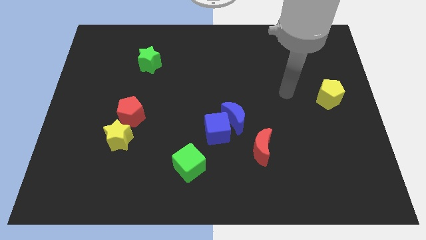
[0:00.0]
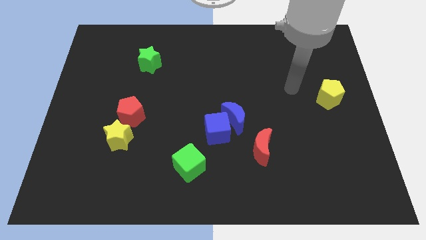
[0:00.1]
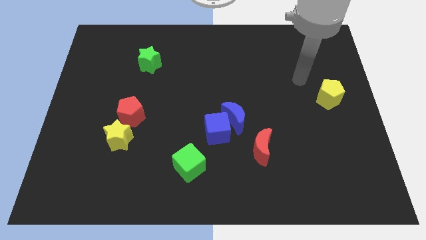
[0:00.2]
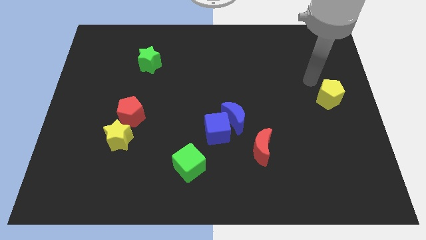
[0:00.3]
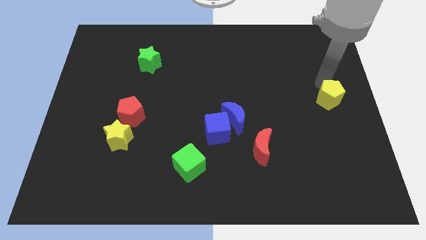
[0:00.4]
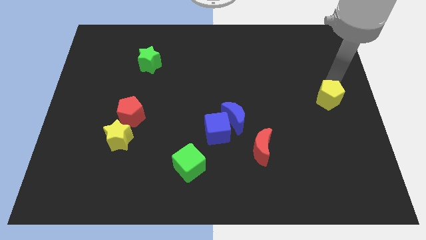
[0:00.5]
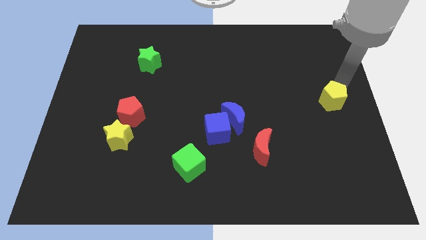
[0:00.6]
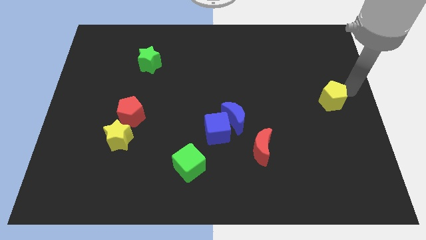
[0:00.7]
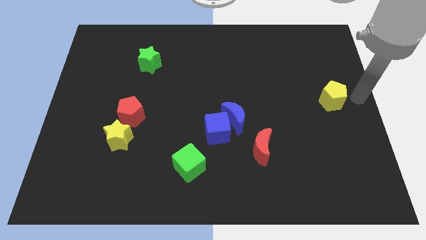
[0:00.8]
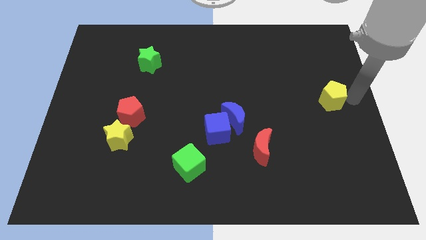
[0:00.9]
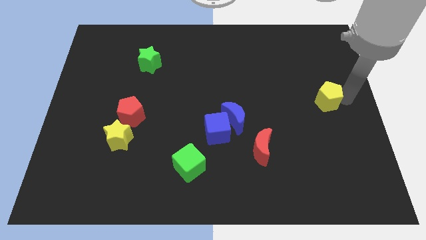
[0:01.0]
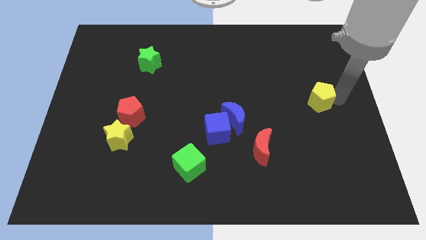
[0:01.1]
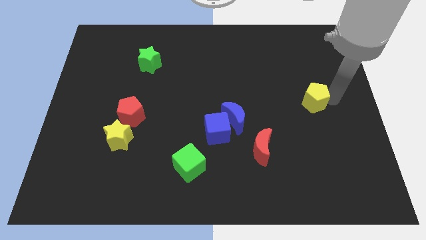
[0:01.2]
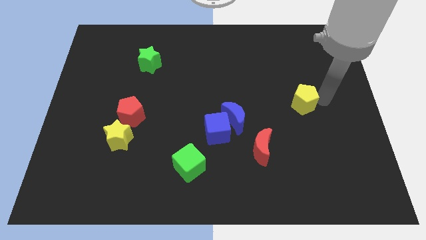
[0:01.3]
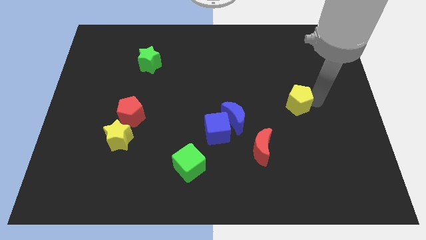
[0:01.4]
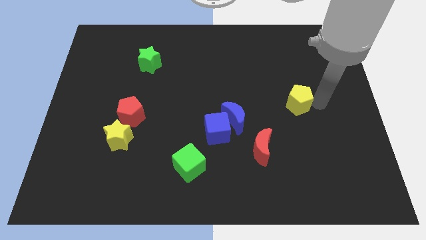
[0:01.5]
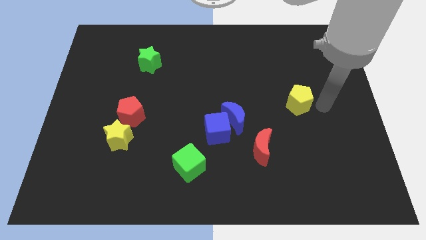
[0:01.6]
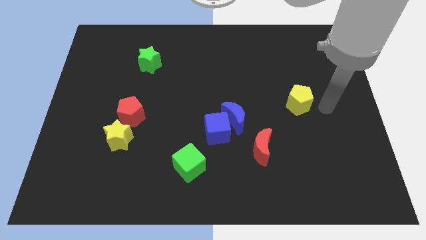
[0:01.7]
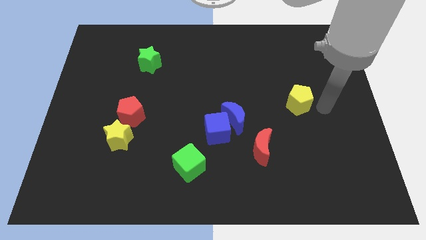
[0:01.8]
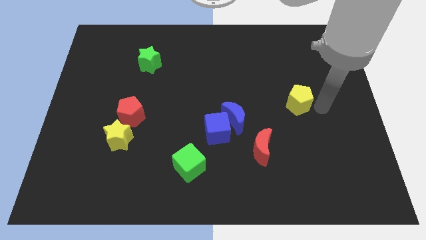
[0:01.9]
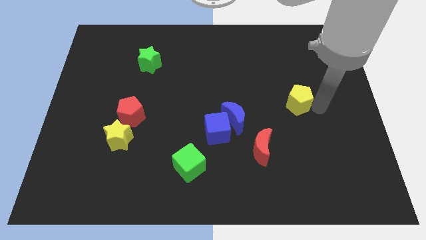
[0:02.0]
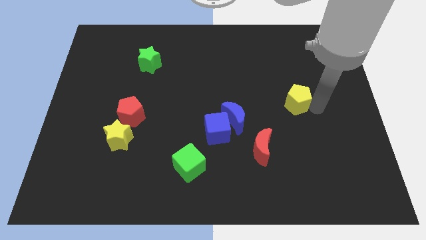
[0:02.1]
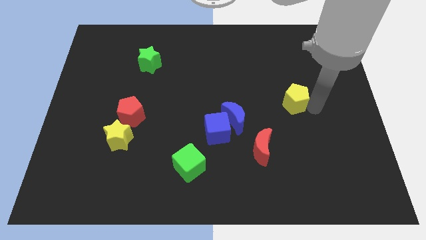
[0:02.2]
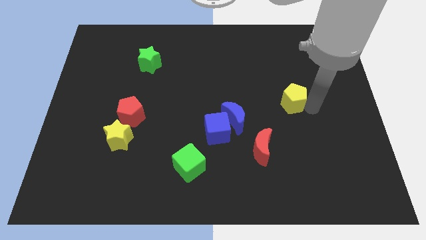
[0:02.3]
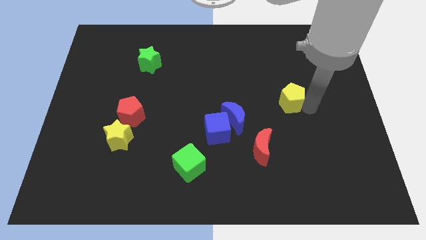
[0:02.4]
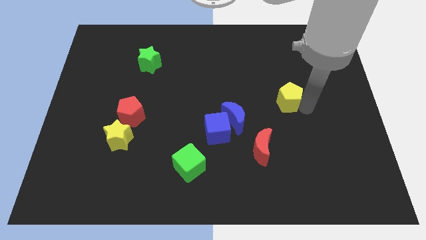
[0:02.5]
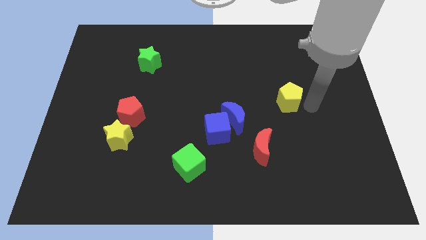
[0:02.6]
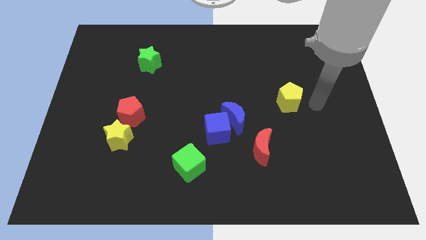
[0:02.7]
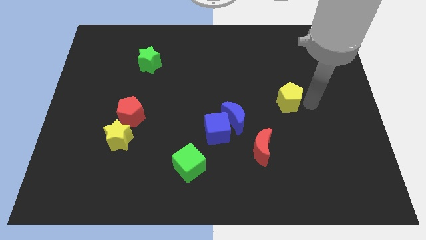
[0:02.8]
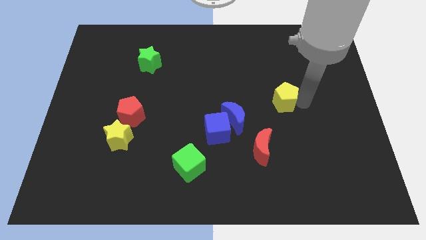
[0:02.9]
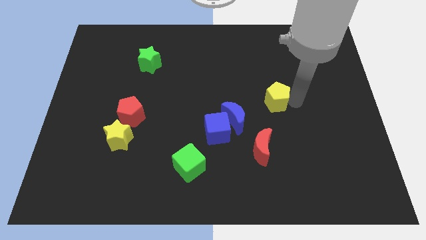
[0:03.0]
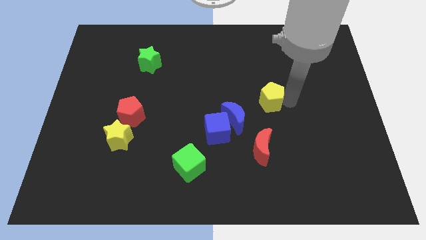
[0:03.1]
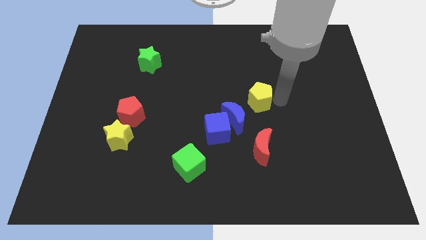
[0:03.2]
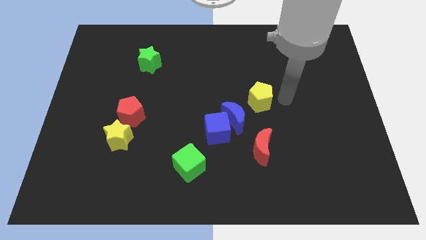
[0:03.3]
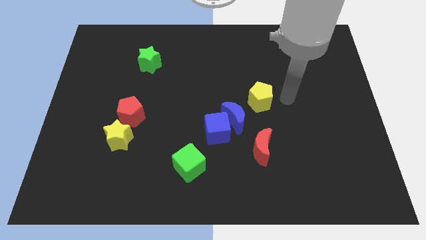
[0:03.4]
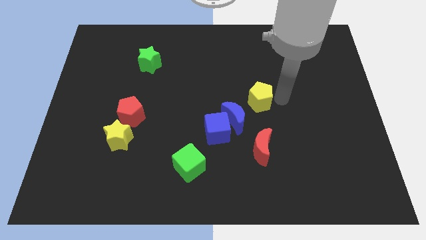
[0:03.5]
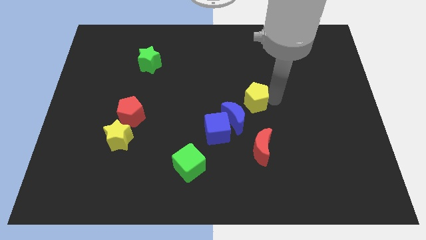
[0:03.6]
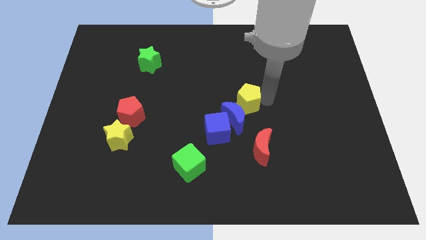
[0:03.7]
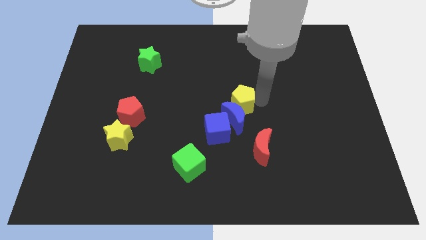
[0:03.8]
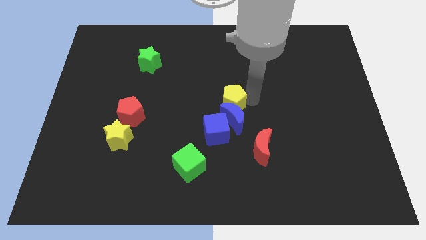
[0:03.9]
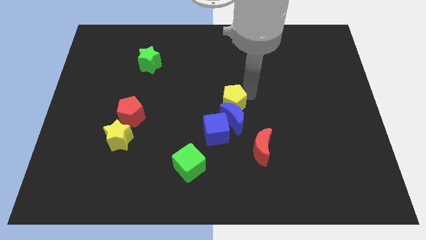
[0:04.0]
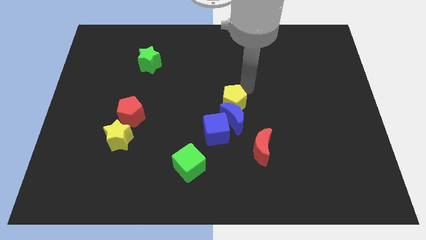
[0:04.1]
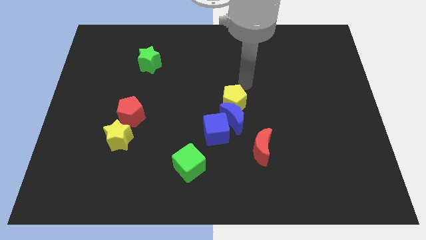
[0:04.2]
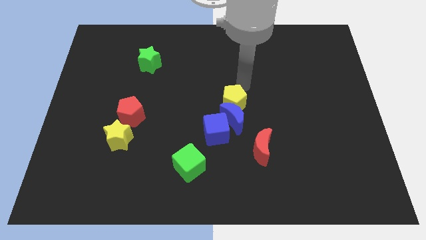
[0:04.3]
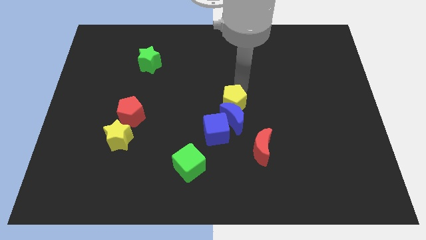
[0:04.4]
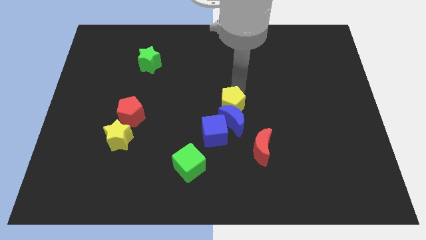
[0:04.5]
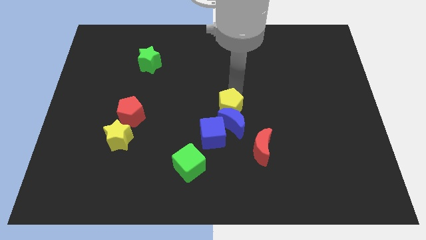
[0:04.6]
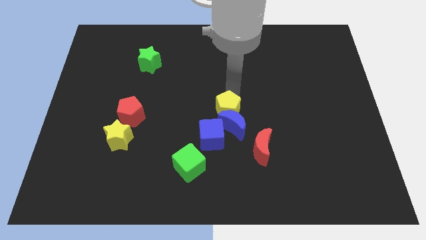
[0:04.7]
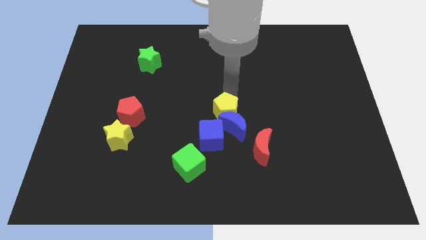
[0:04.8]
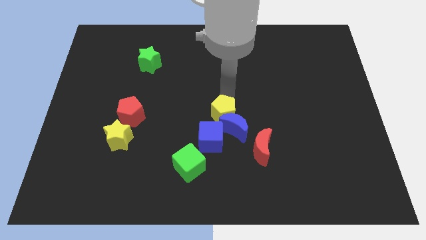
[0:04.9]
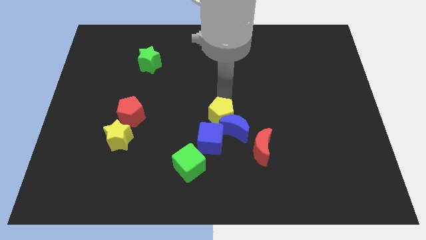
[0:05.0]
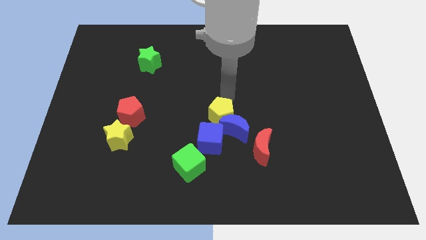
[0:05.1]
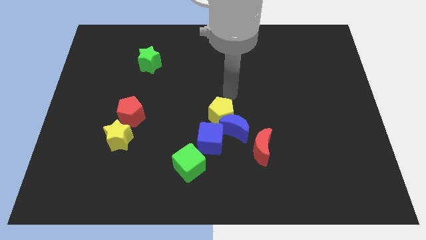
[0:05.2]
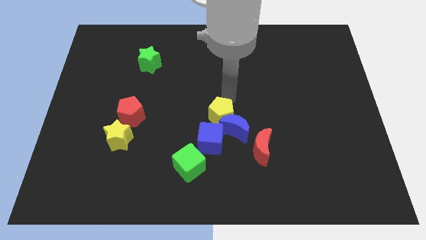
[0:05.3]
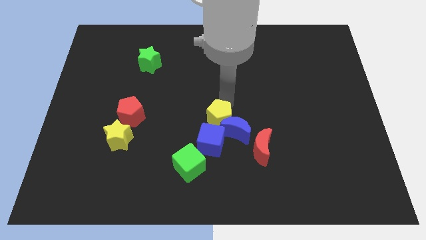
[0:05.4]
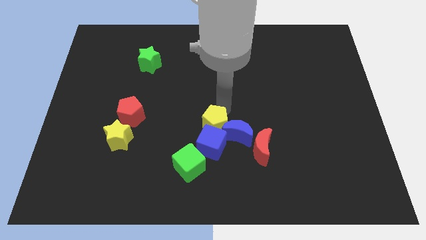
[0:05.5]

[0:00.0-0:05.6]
move the yellow pentagon close to the blue cube

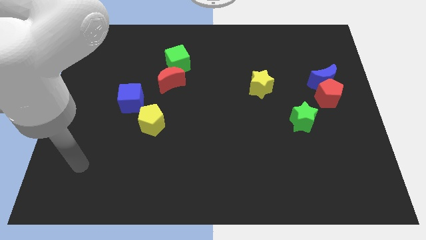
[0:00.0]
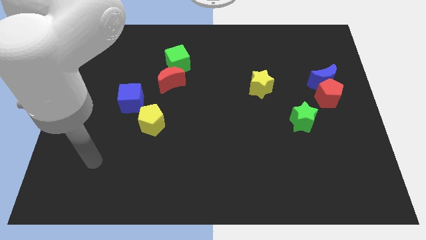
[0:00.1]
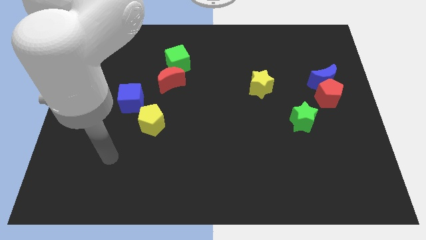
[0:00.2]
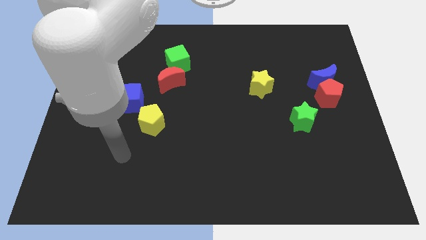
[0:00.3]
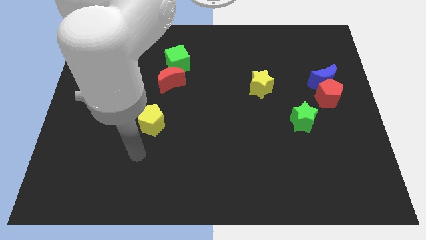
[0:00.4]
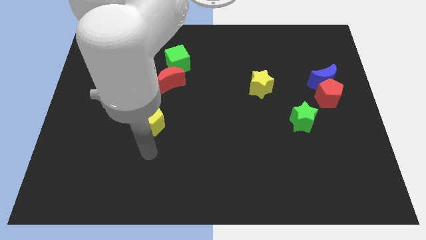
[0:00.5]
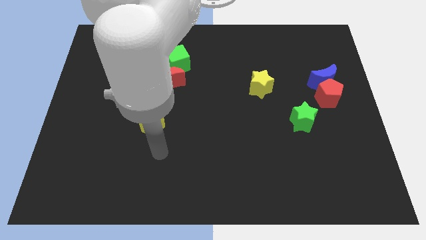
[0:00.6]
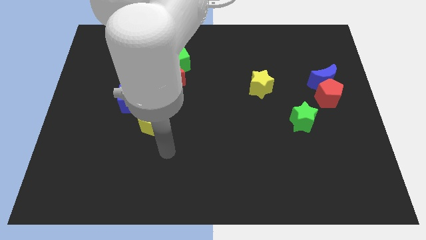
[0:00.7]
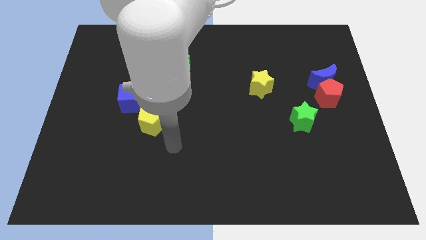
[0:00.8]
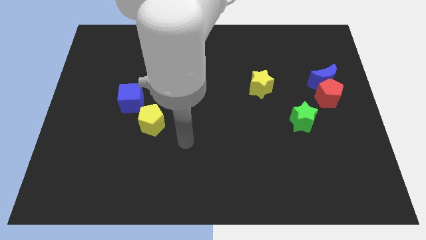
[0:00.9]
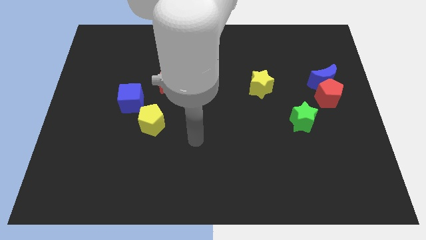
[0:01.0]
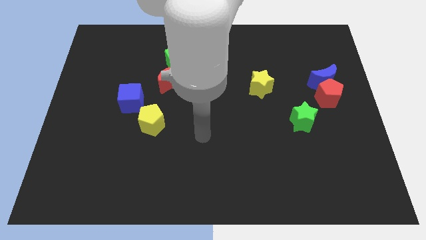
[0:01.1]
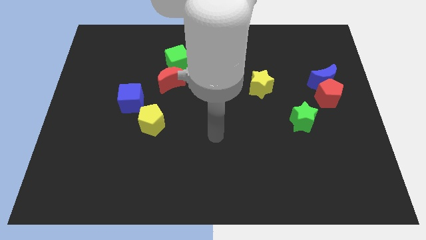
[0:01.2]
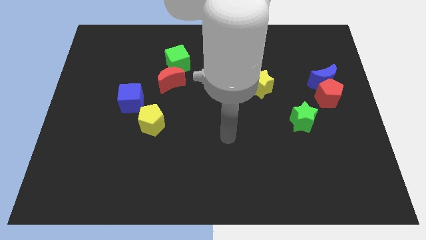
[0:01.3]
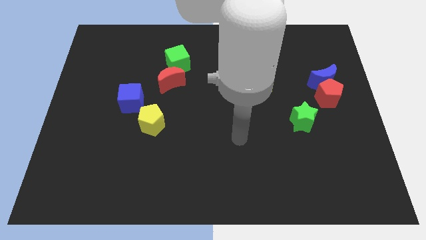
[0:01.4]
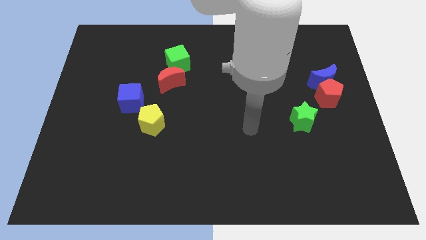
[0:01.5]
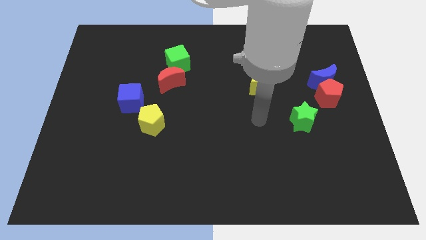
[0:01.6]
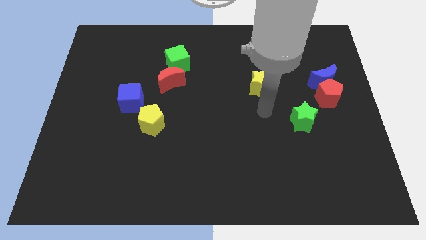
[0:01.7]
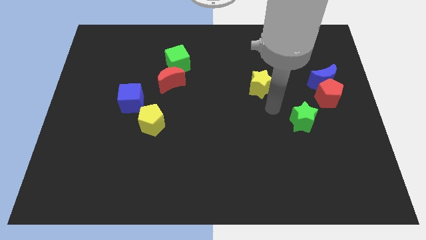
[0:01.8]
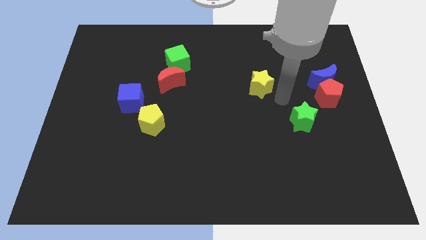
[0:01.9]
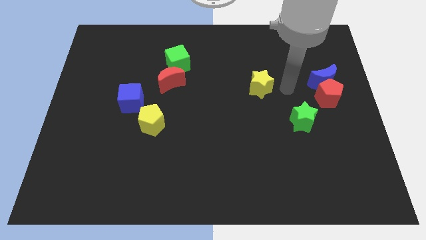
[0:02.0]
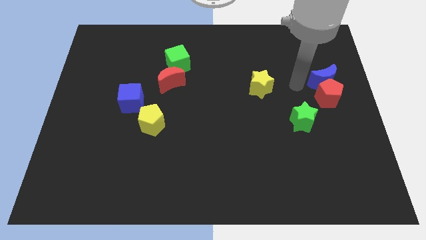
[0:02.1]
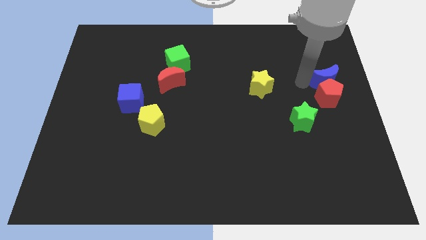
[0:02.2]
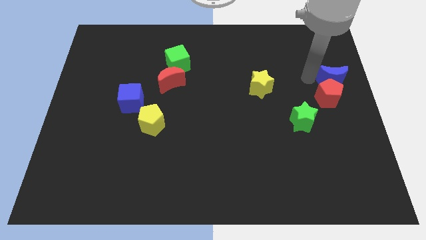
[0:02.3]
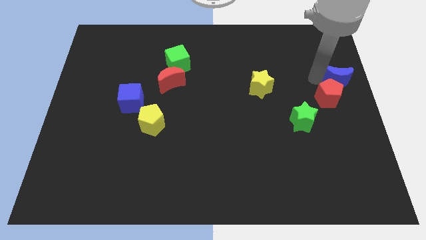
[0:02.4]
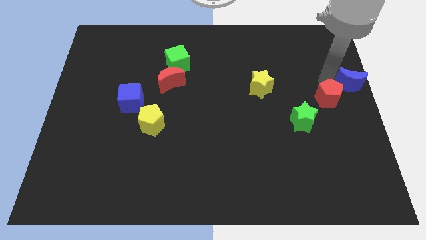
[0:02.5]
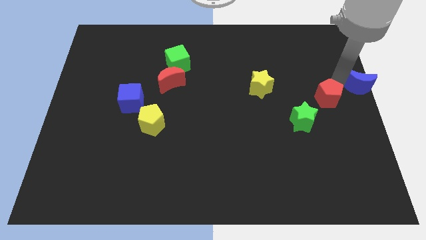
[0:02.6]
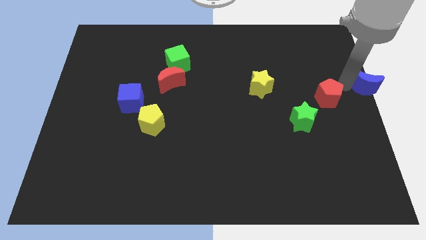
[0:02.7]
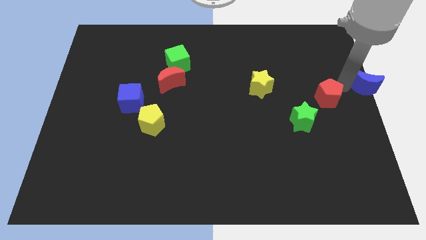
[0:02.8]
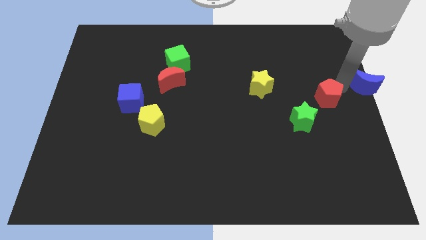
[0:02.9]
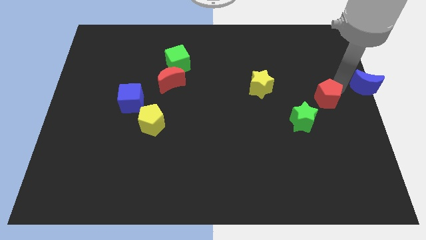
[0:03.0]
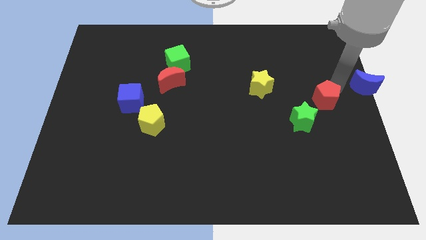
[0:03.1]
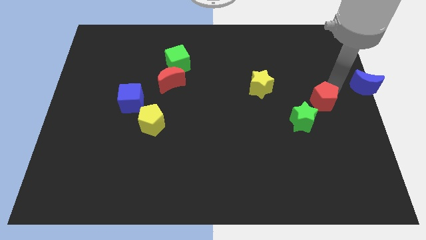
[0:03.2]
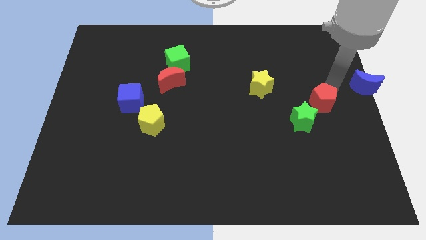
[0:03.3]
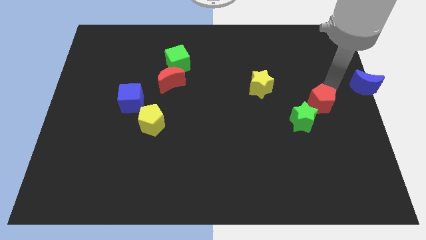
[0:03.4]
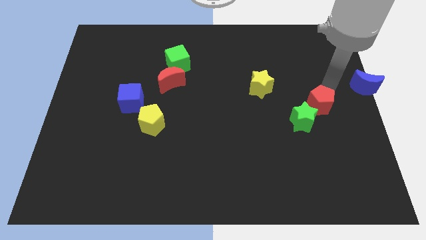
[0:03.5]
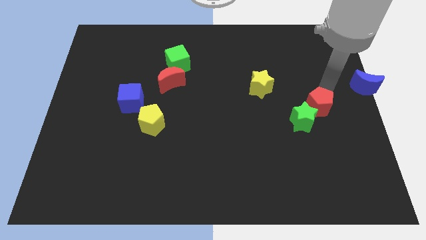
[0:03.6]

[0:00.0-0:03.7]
move the red pentagon close to the green star
